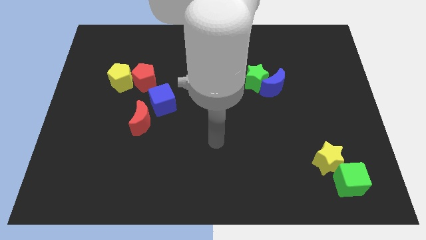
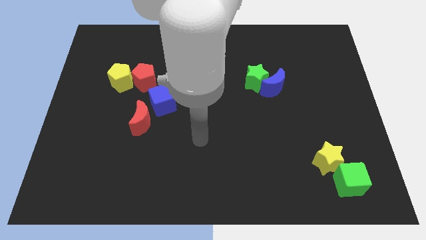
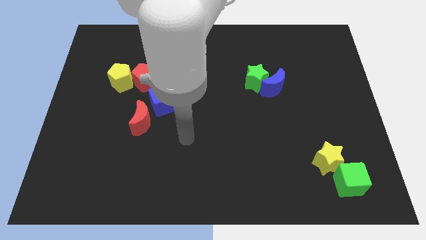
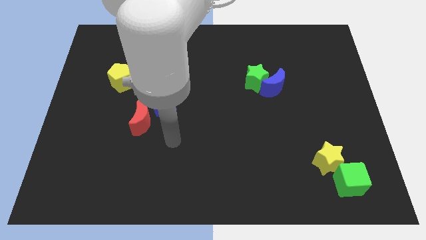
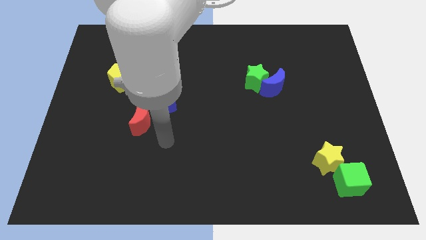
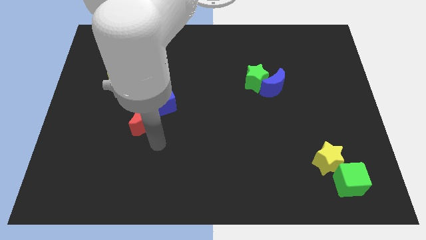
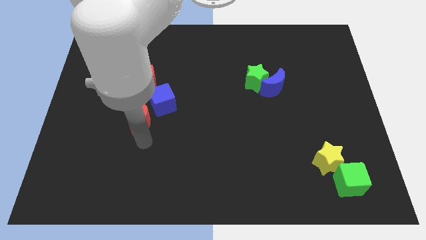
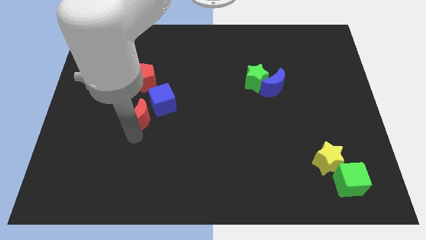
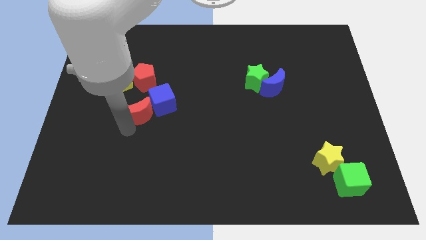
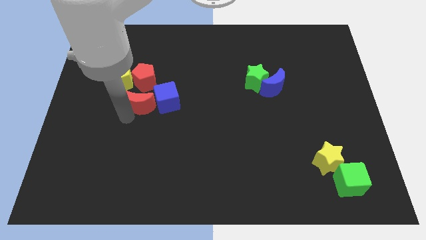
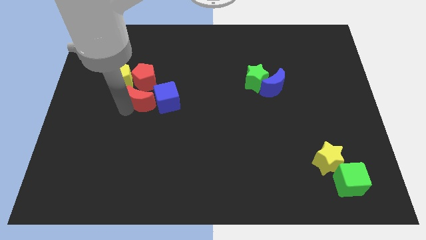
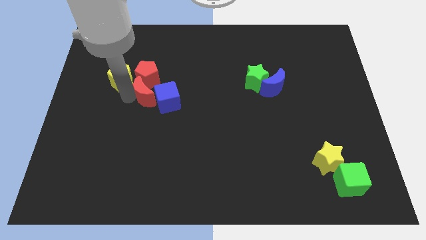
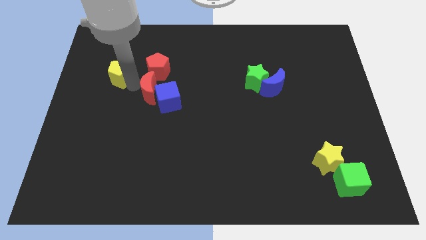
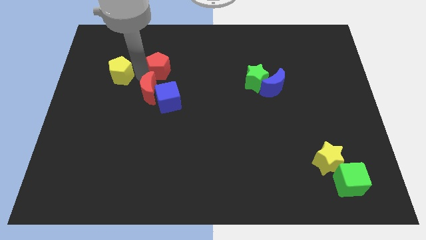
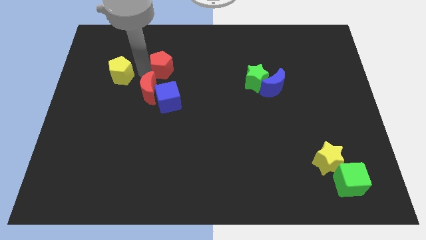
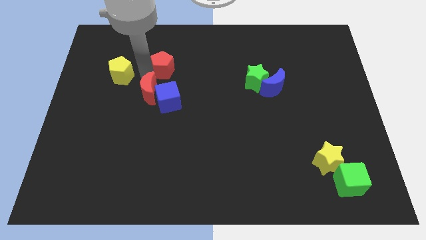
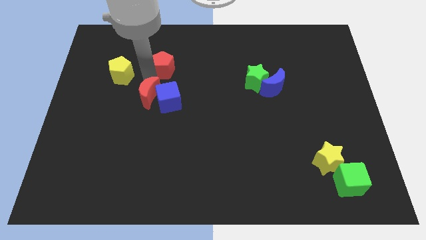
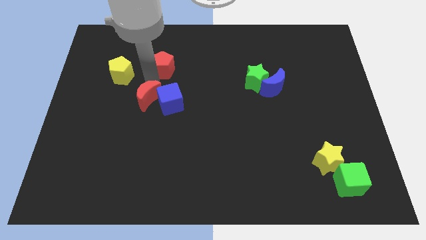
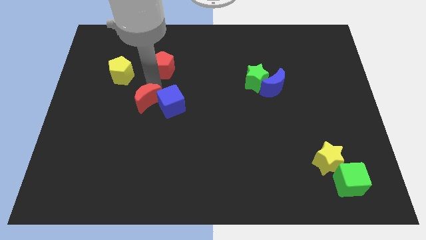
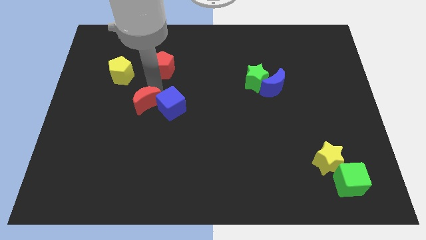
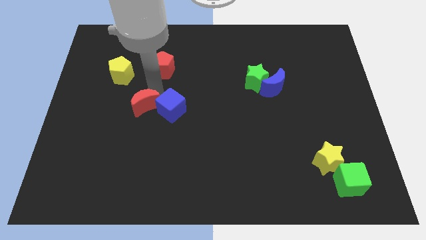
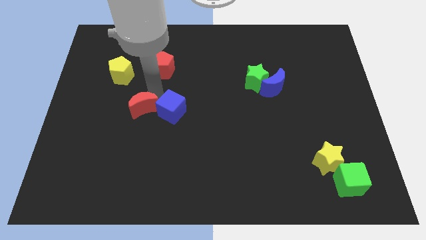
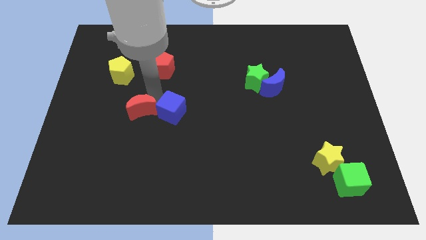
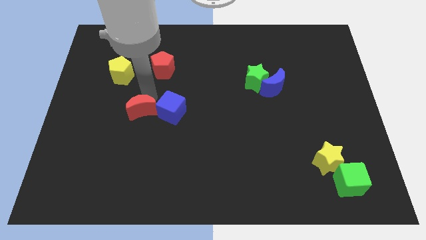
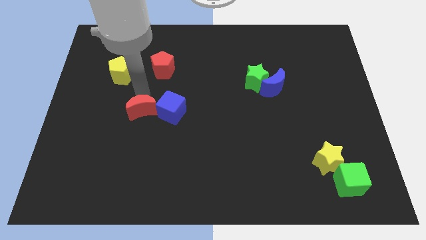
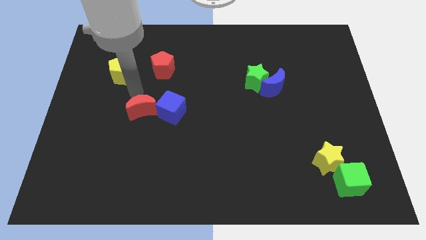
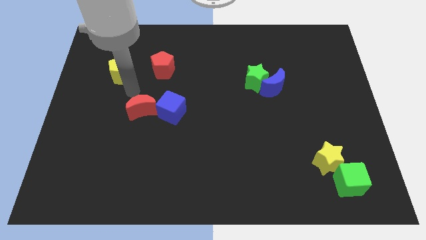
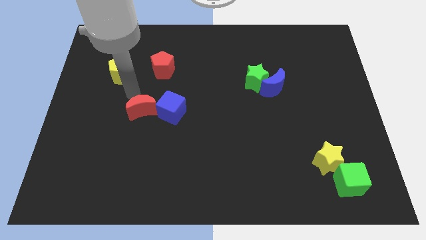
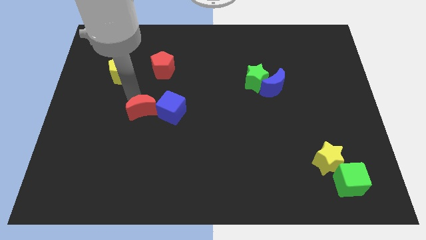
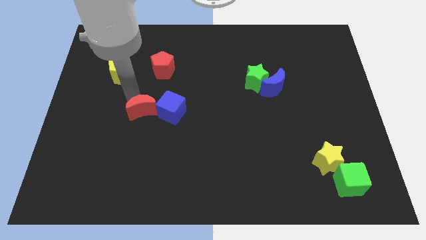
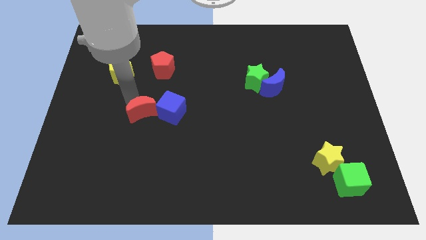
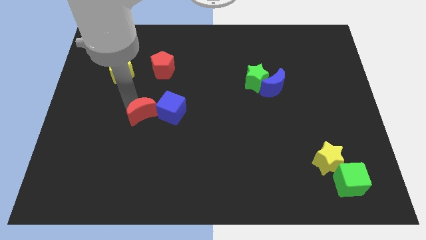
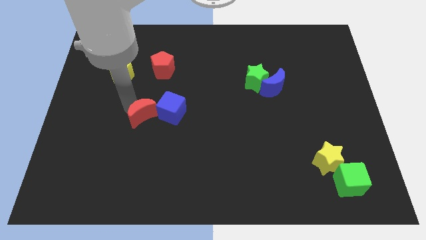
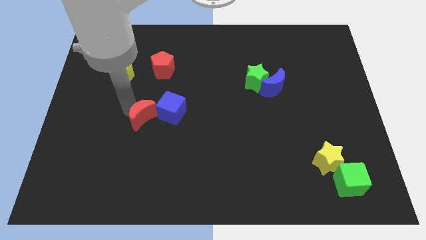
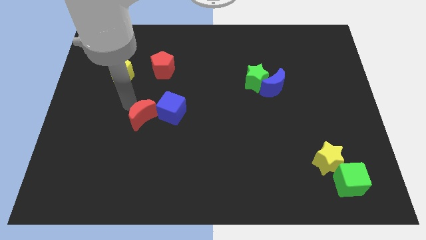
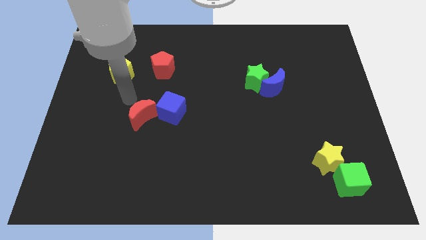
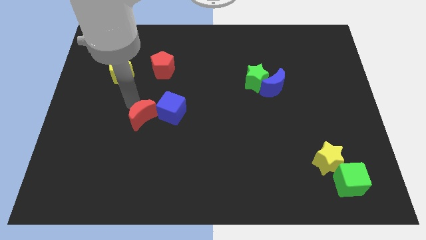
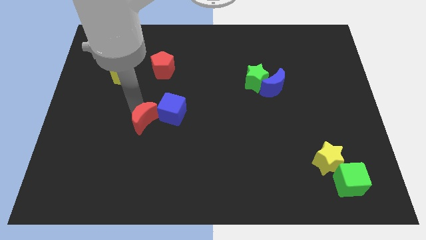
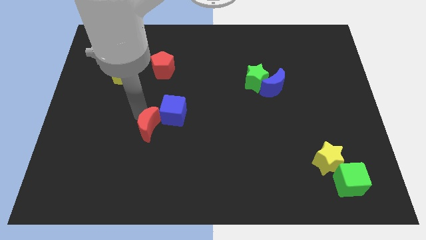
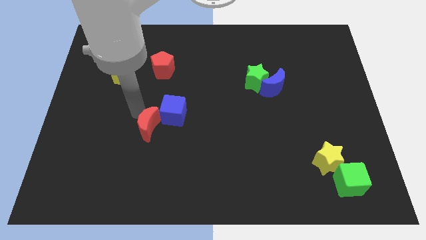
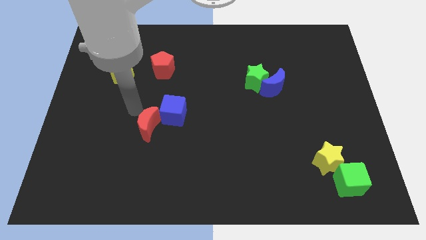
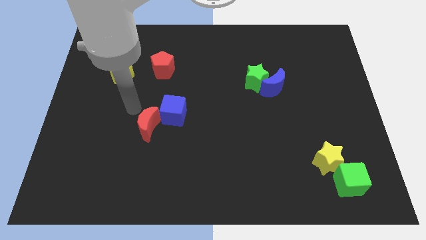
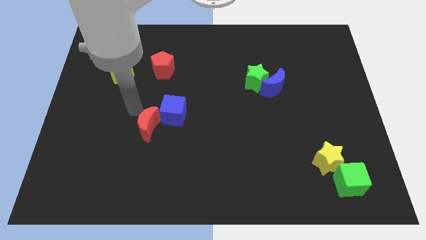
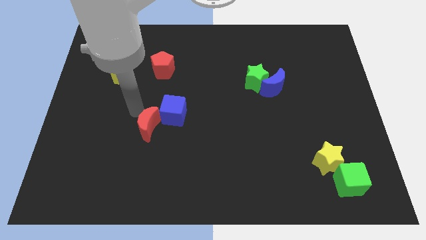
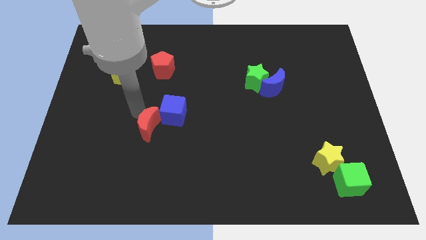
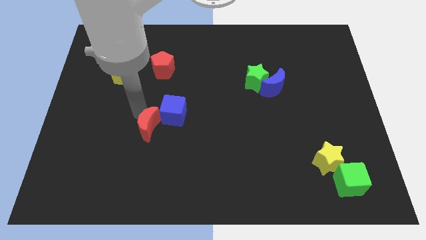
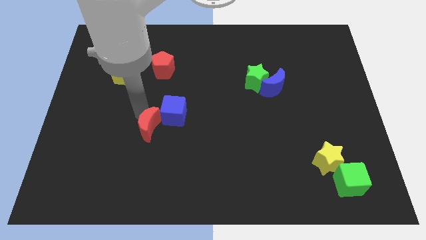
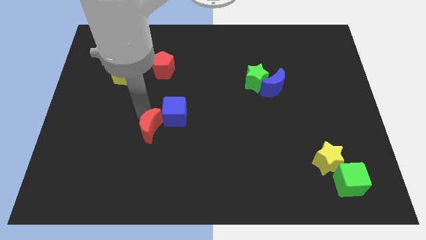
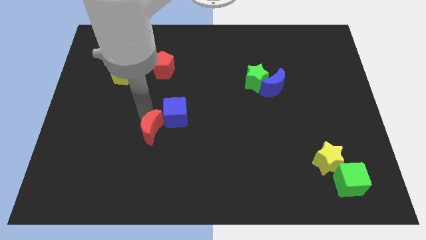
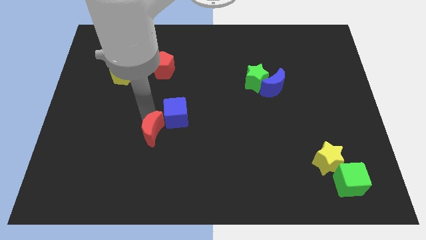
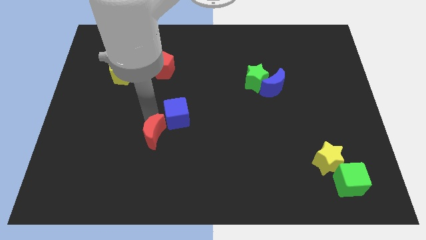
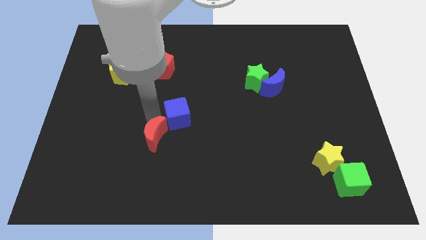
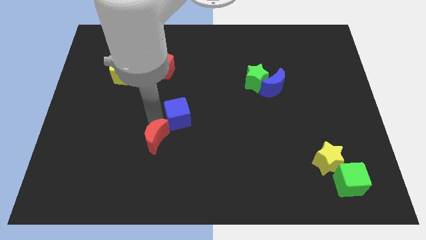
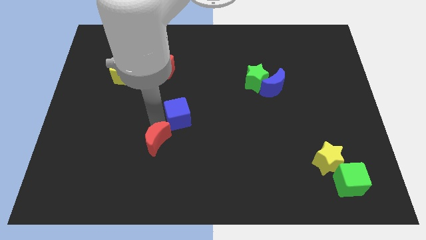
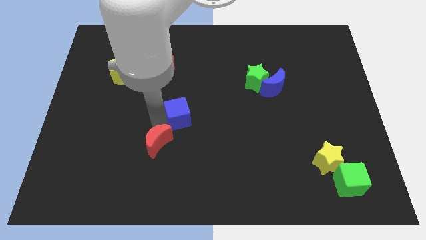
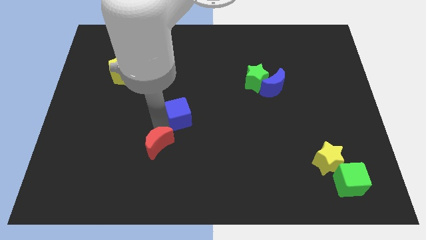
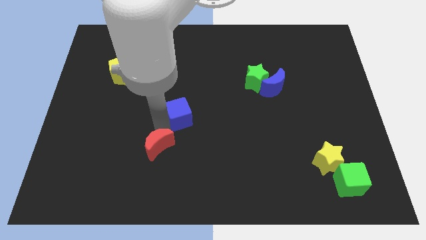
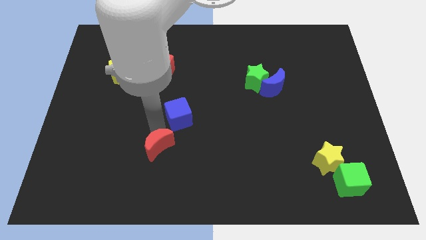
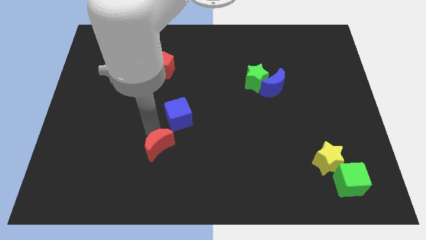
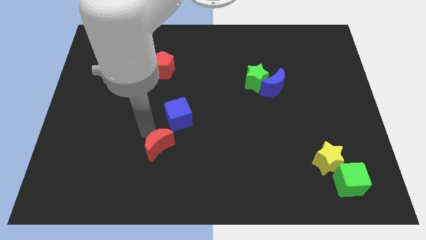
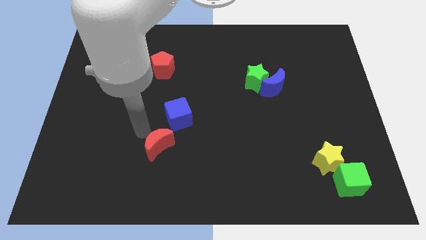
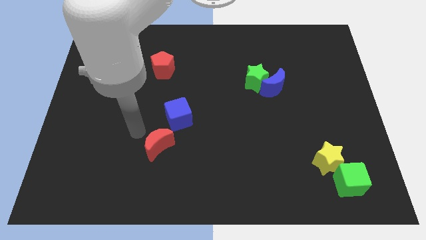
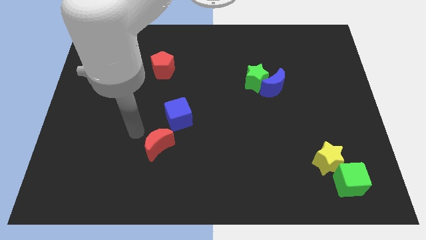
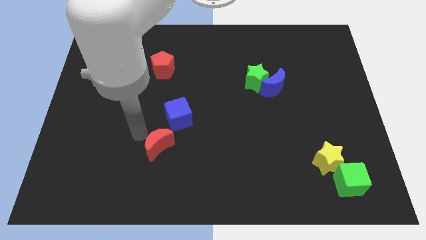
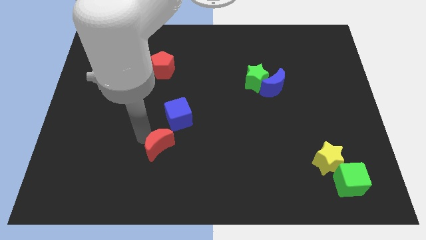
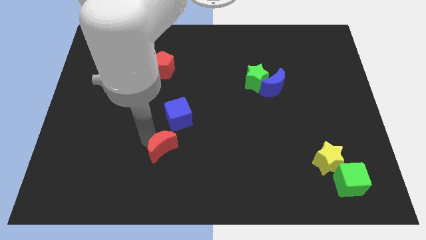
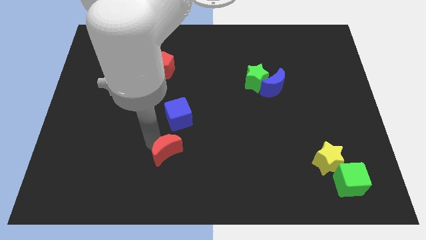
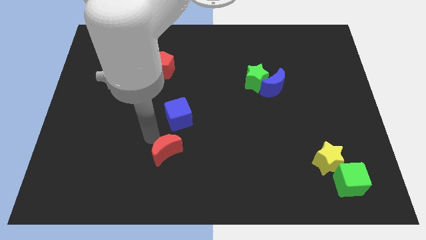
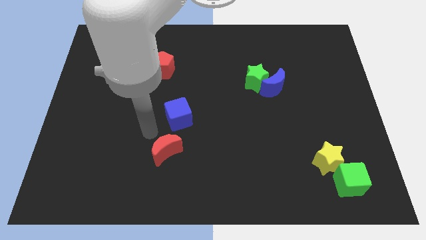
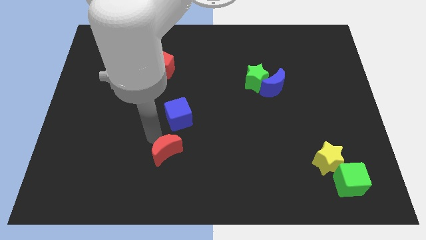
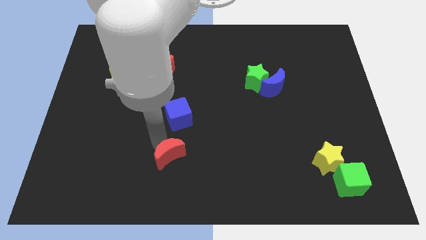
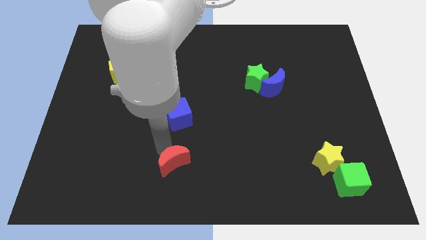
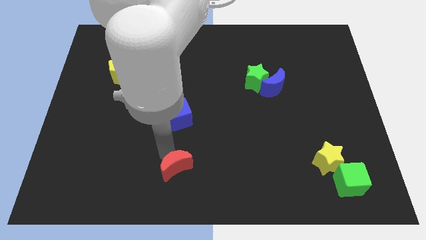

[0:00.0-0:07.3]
push the red moon to the bottom
